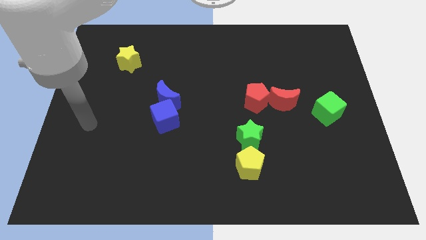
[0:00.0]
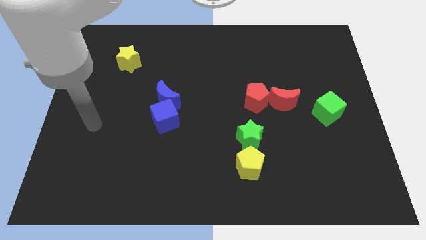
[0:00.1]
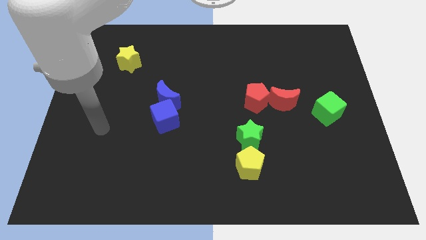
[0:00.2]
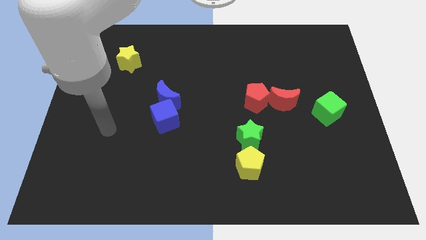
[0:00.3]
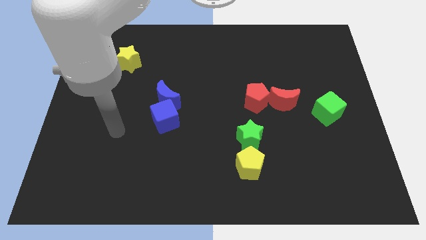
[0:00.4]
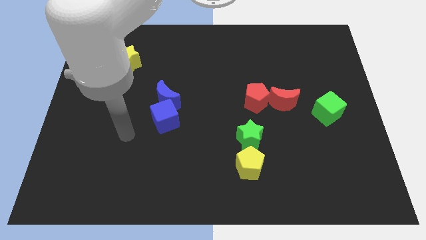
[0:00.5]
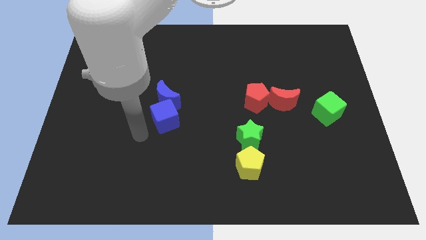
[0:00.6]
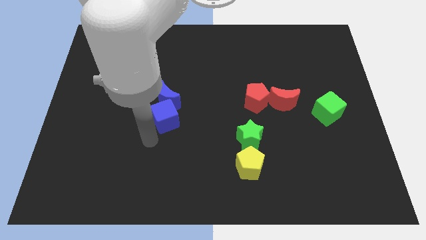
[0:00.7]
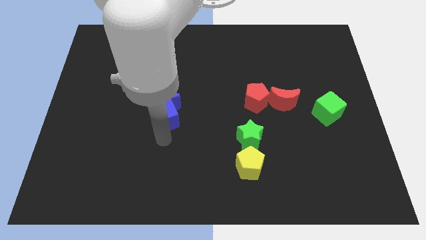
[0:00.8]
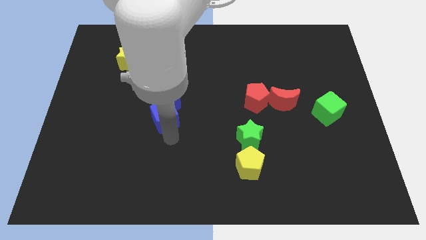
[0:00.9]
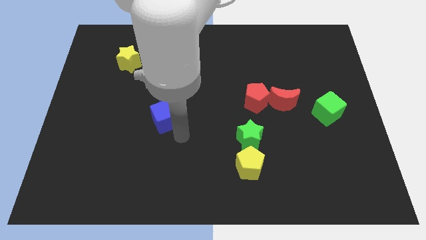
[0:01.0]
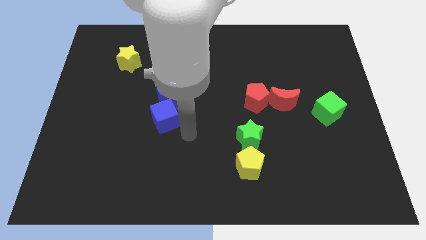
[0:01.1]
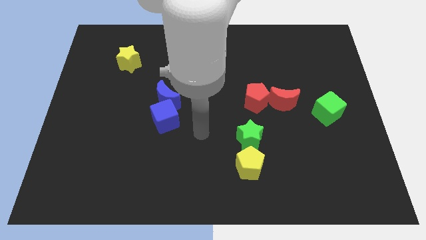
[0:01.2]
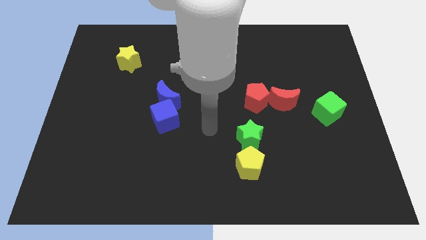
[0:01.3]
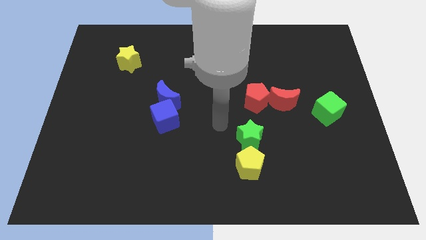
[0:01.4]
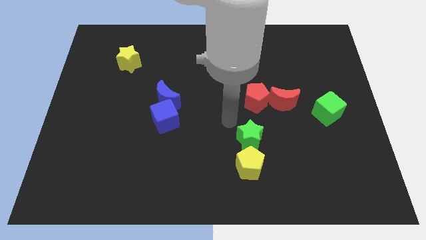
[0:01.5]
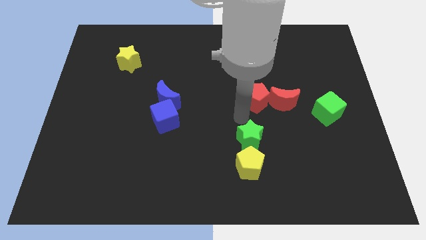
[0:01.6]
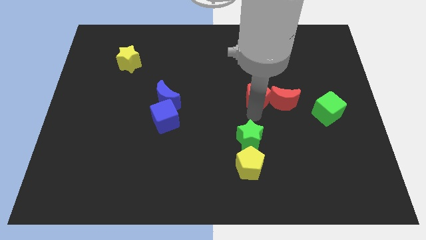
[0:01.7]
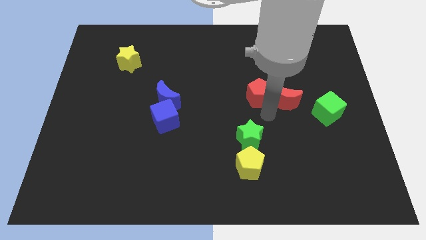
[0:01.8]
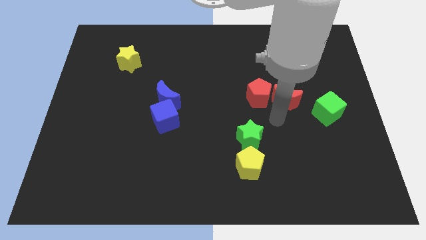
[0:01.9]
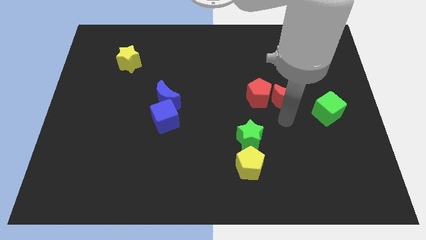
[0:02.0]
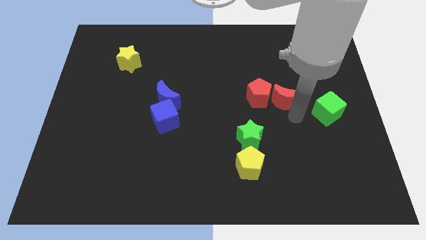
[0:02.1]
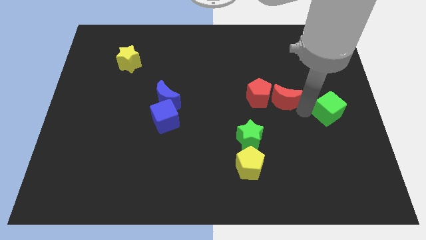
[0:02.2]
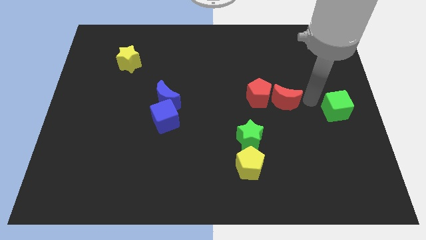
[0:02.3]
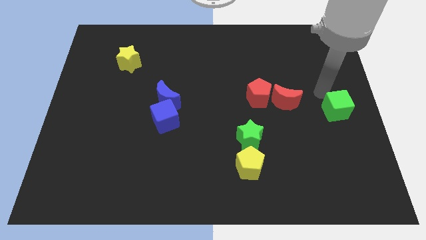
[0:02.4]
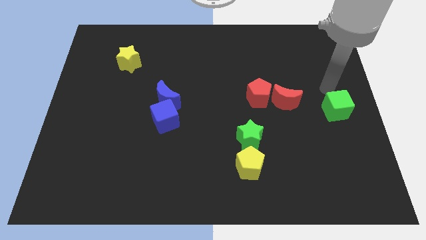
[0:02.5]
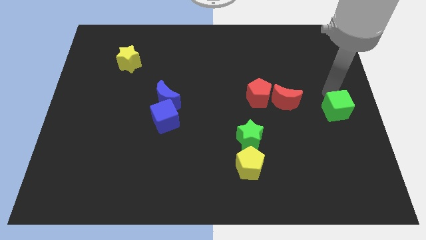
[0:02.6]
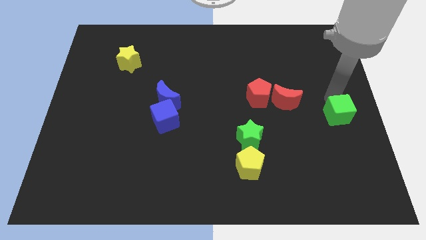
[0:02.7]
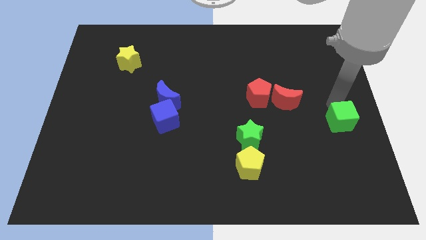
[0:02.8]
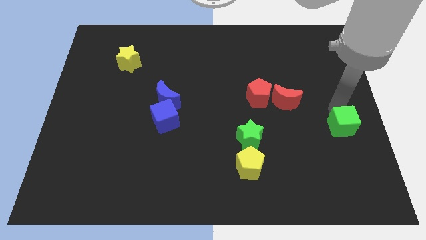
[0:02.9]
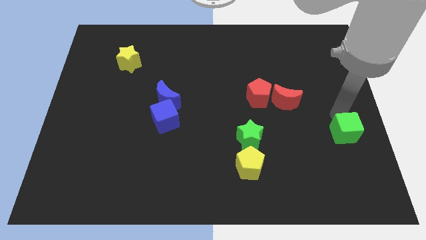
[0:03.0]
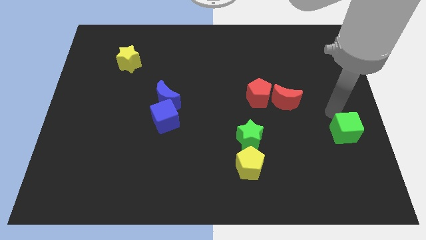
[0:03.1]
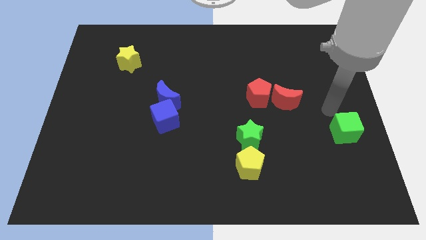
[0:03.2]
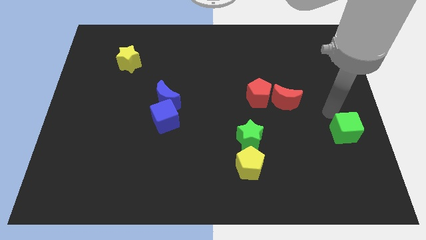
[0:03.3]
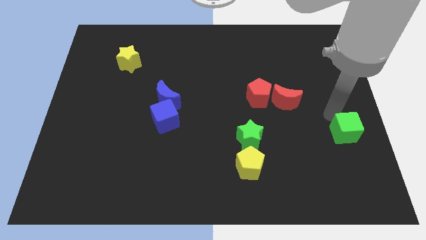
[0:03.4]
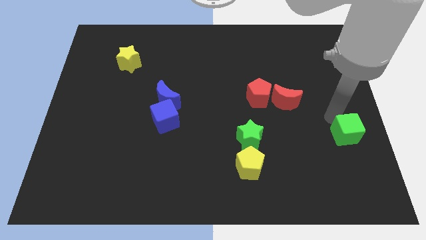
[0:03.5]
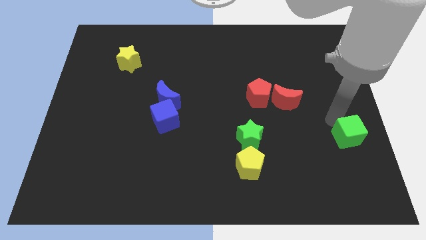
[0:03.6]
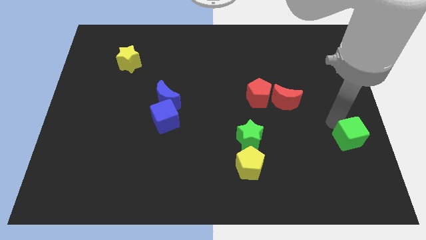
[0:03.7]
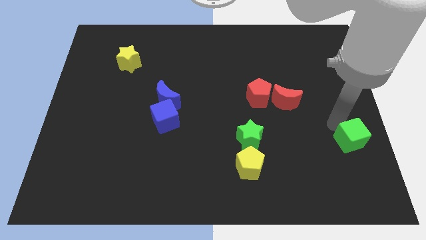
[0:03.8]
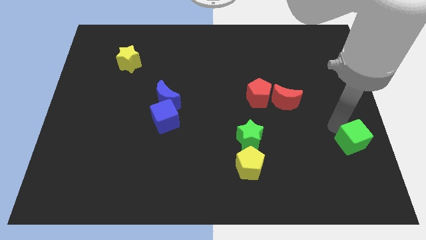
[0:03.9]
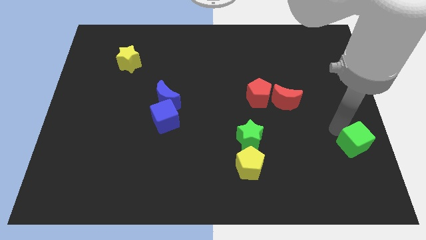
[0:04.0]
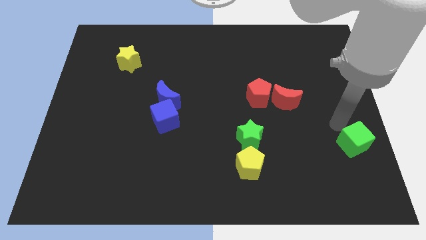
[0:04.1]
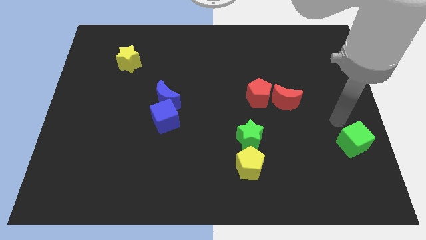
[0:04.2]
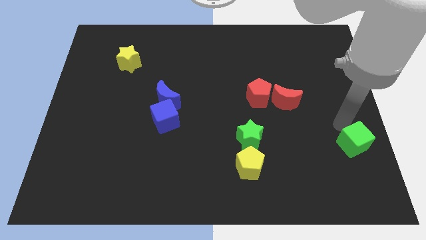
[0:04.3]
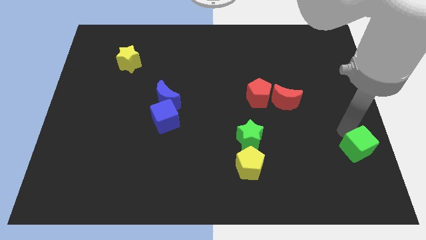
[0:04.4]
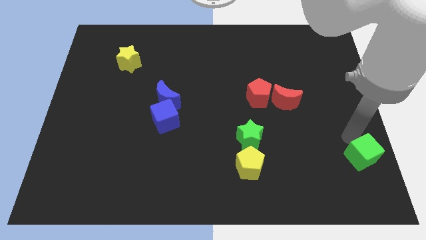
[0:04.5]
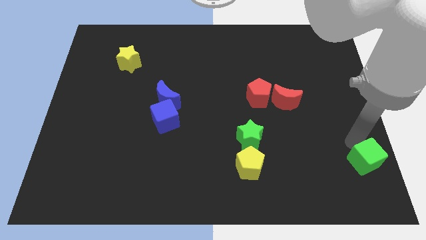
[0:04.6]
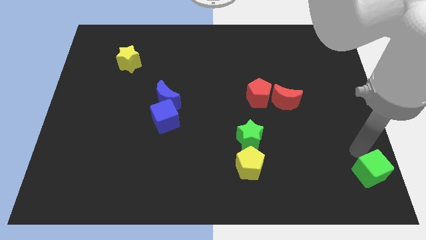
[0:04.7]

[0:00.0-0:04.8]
move the green cube to the bottom right of the board

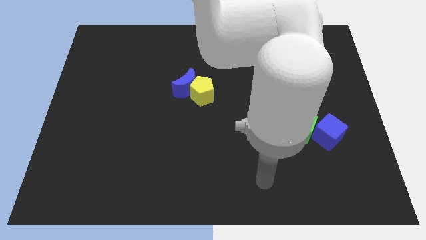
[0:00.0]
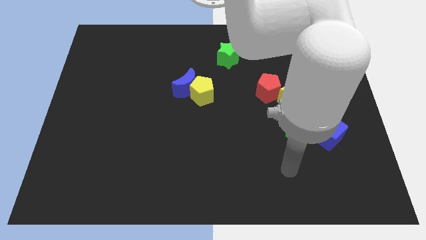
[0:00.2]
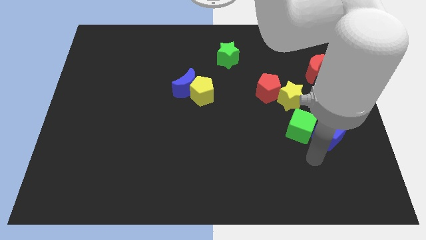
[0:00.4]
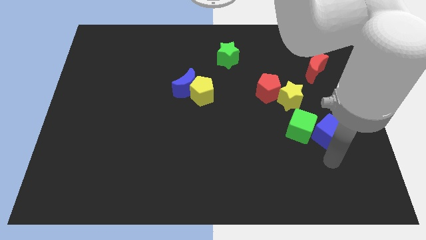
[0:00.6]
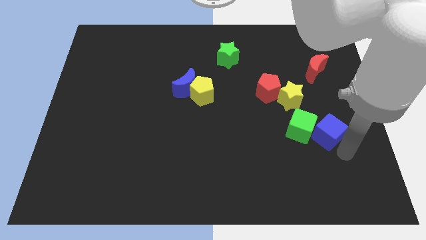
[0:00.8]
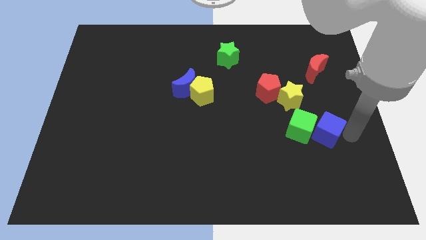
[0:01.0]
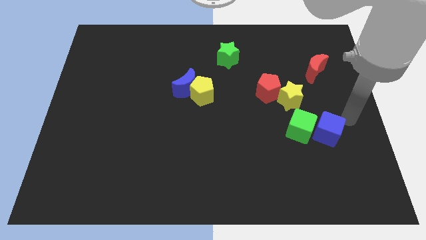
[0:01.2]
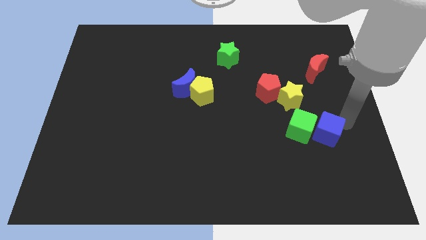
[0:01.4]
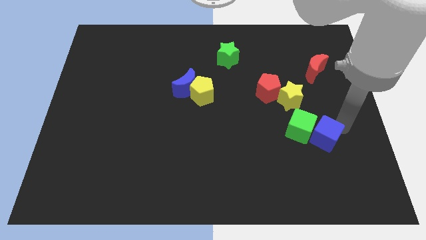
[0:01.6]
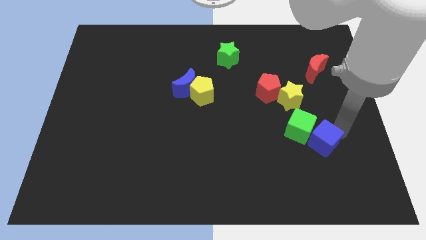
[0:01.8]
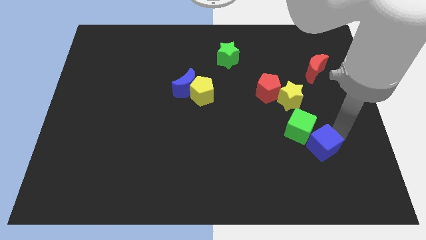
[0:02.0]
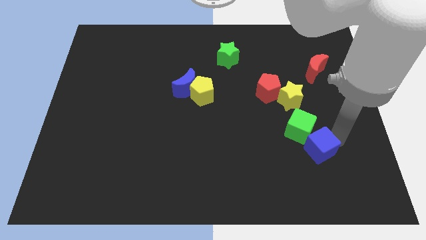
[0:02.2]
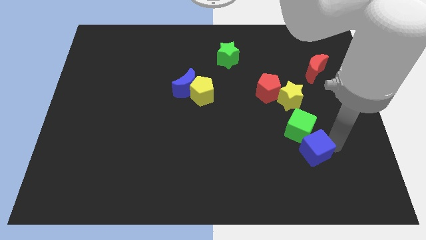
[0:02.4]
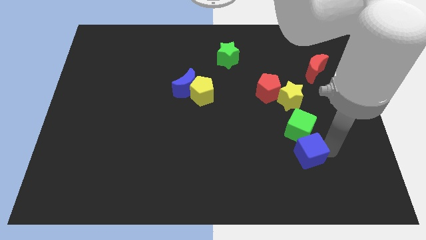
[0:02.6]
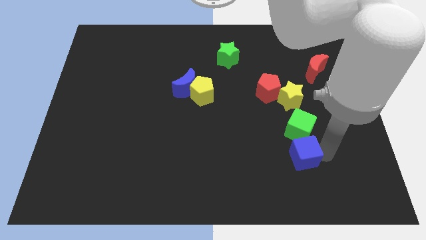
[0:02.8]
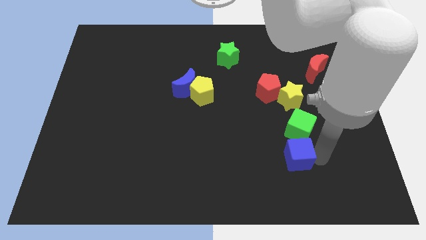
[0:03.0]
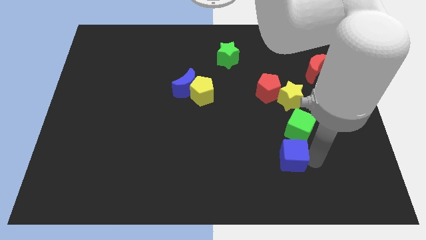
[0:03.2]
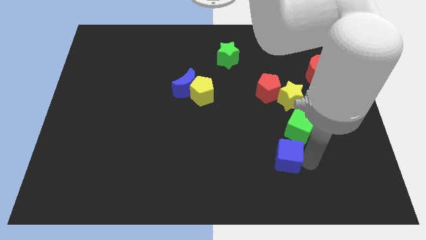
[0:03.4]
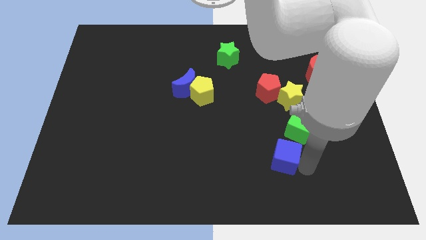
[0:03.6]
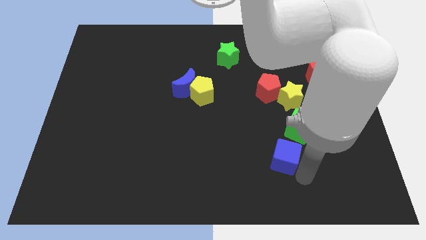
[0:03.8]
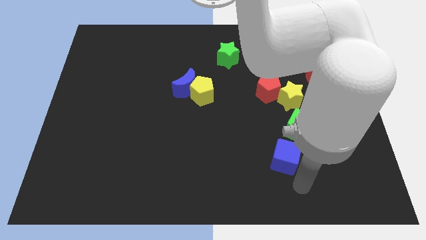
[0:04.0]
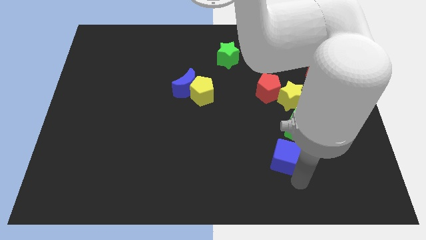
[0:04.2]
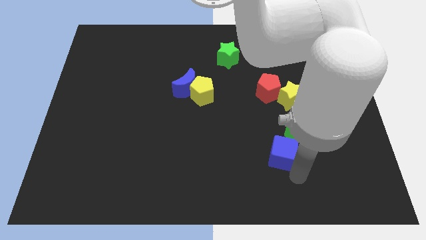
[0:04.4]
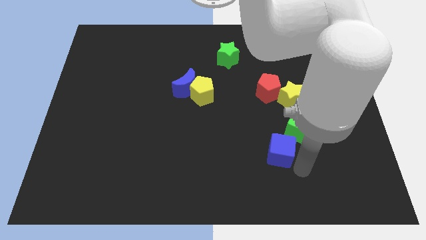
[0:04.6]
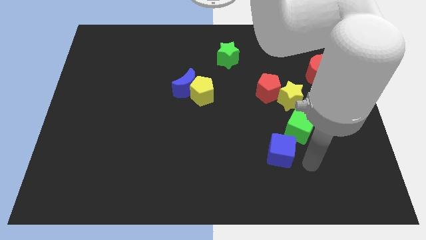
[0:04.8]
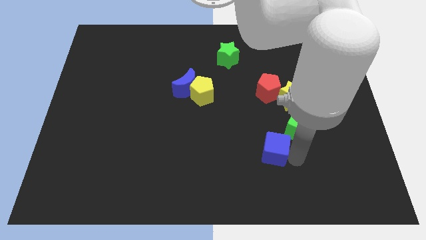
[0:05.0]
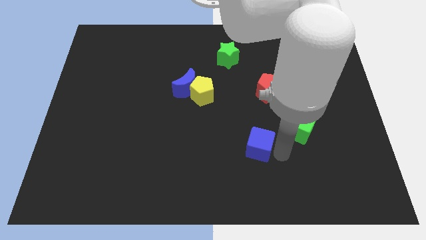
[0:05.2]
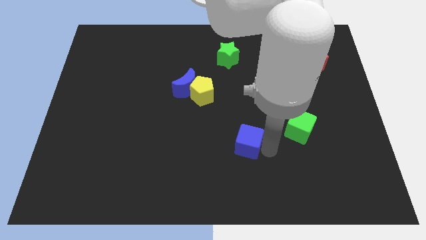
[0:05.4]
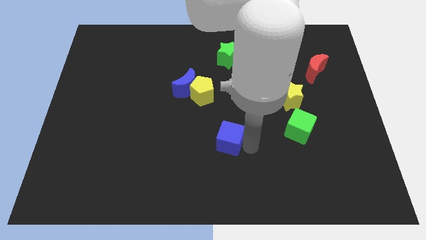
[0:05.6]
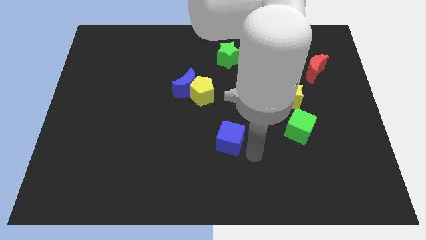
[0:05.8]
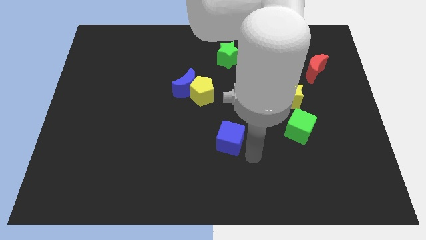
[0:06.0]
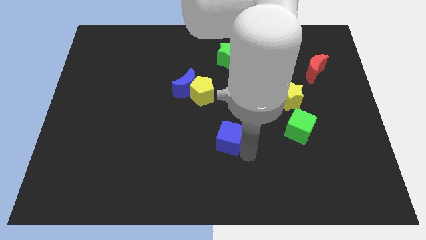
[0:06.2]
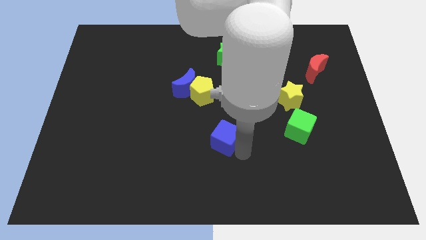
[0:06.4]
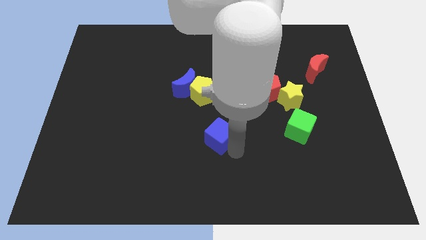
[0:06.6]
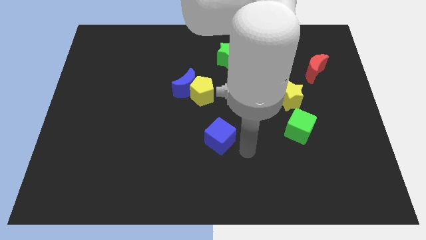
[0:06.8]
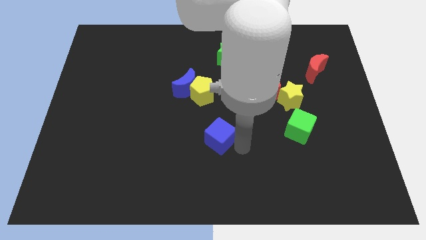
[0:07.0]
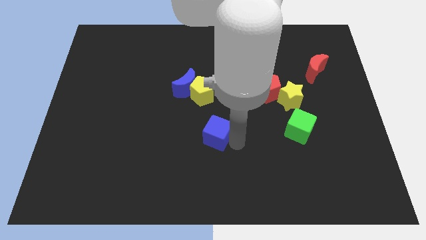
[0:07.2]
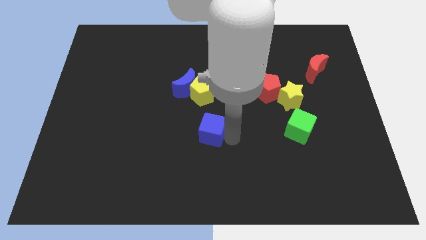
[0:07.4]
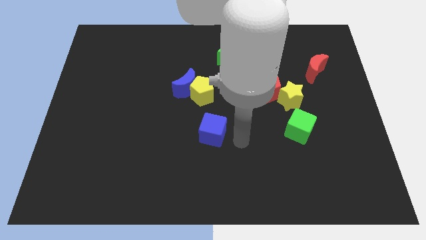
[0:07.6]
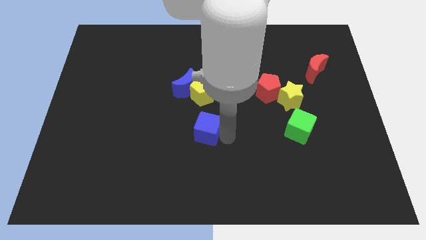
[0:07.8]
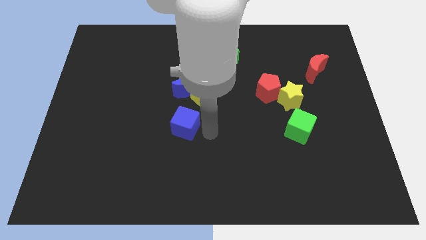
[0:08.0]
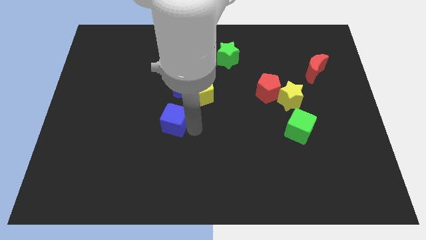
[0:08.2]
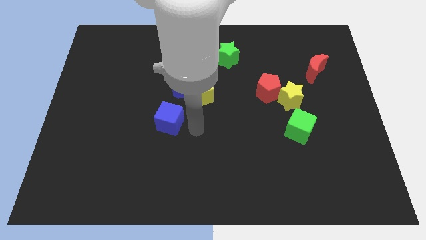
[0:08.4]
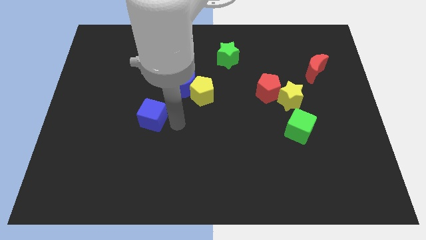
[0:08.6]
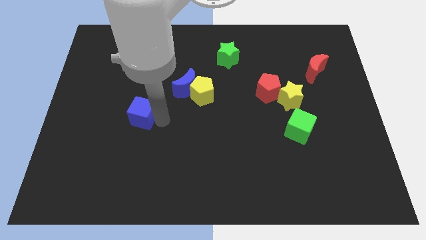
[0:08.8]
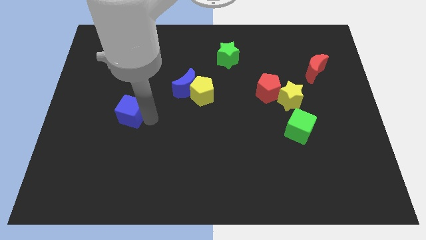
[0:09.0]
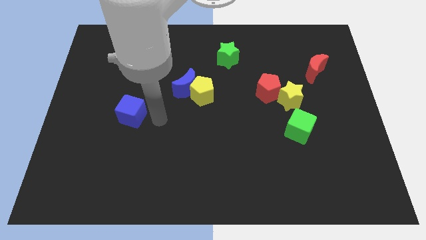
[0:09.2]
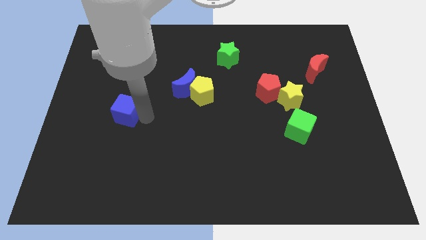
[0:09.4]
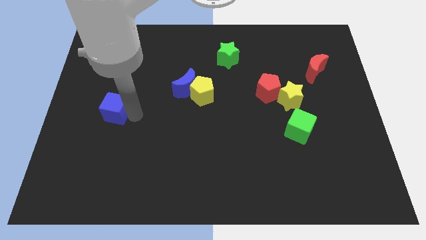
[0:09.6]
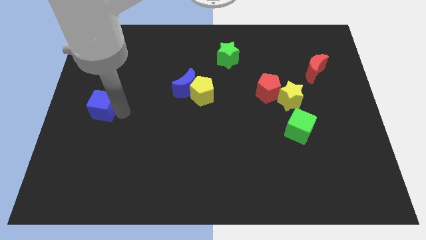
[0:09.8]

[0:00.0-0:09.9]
move the blue cube to the center left
